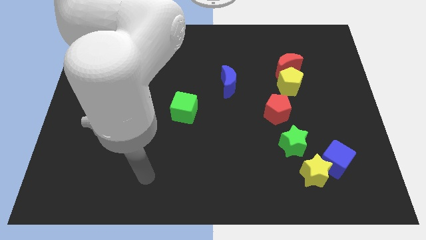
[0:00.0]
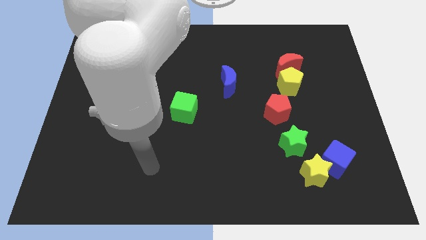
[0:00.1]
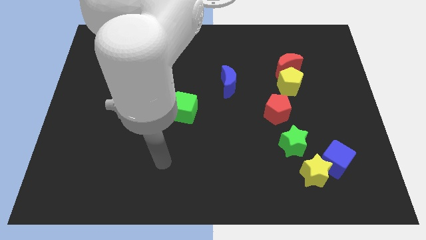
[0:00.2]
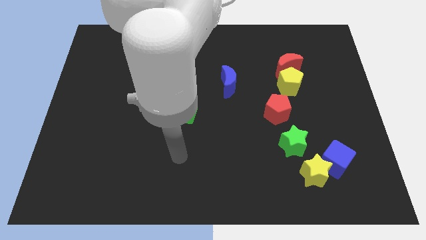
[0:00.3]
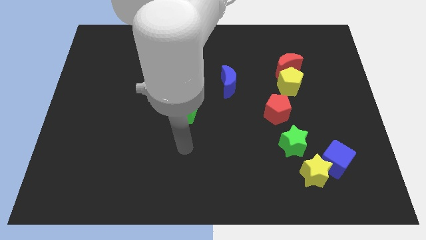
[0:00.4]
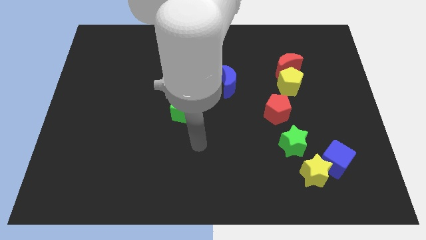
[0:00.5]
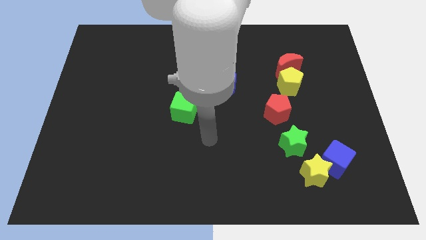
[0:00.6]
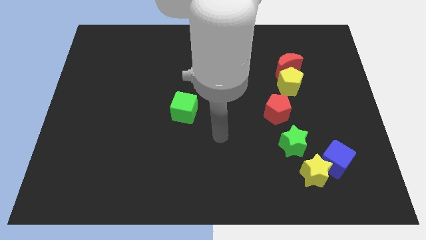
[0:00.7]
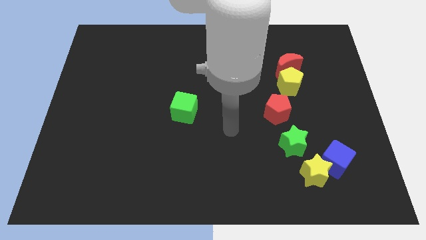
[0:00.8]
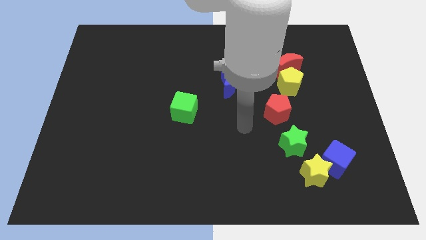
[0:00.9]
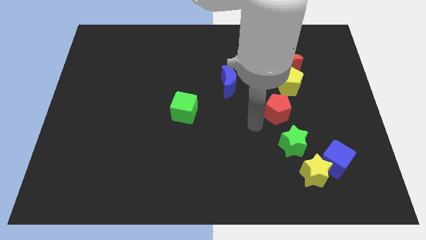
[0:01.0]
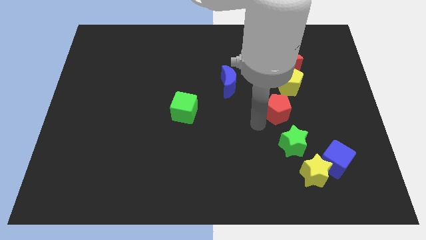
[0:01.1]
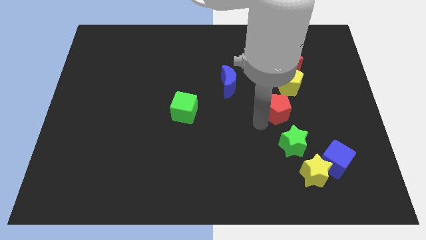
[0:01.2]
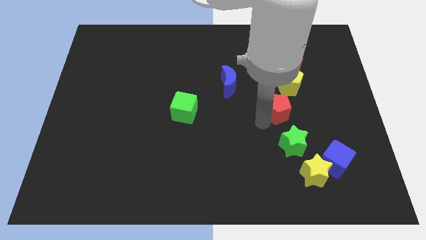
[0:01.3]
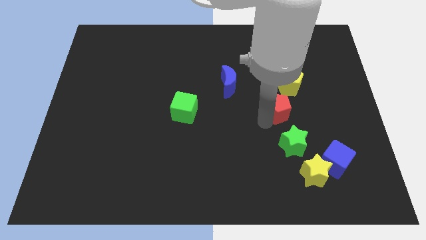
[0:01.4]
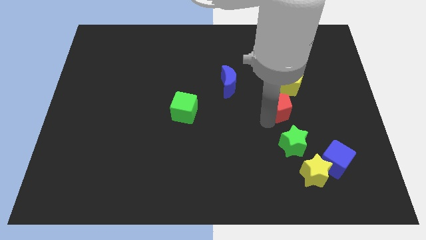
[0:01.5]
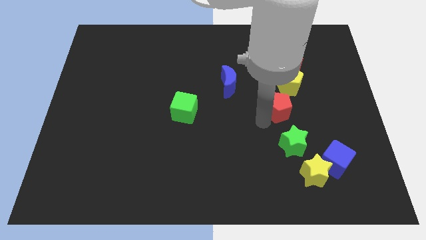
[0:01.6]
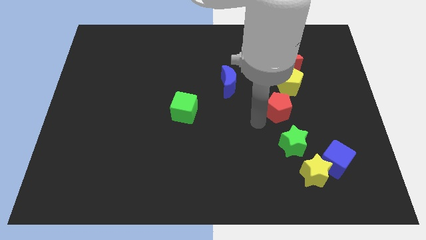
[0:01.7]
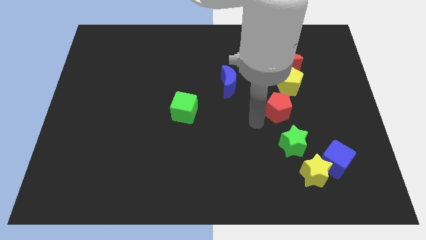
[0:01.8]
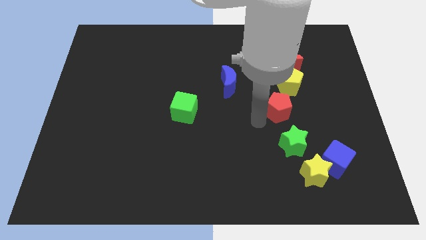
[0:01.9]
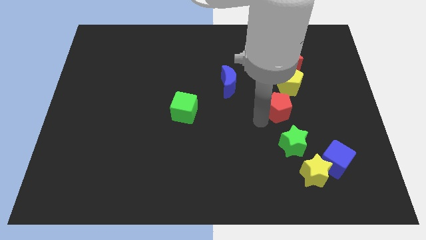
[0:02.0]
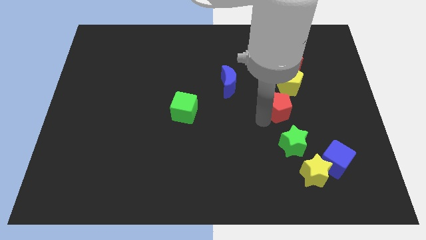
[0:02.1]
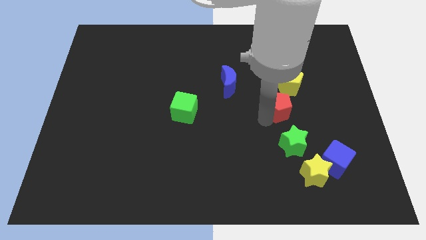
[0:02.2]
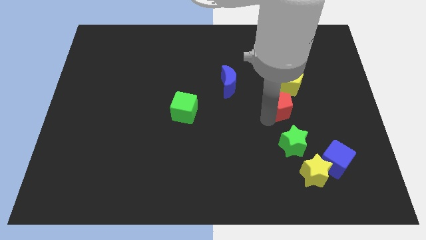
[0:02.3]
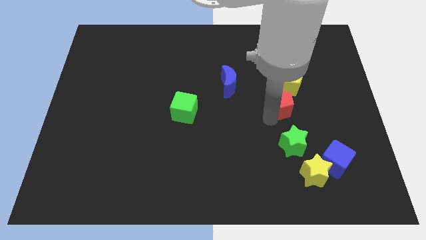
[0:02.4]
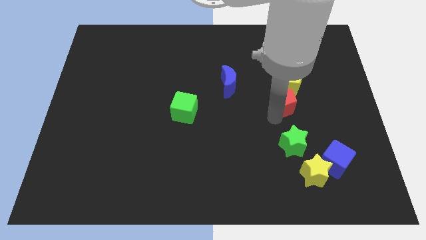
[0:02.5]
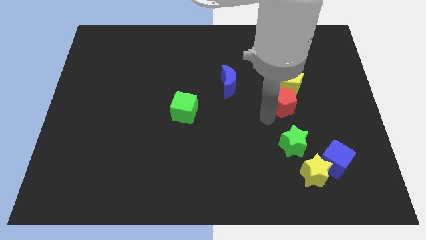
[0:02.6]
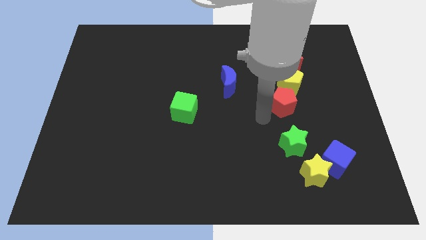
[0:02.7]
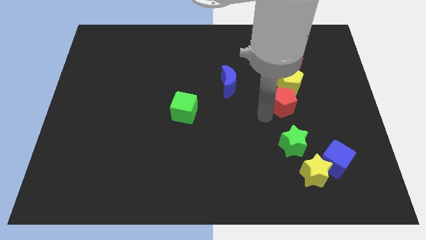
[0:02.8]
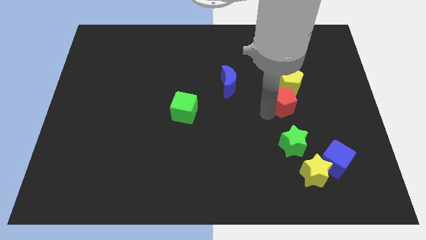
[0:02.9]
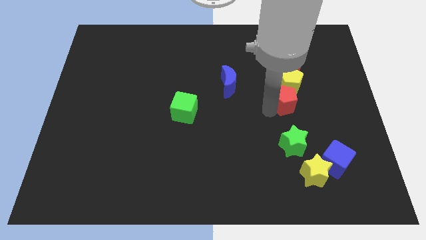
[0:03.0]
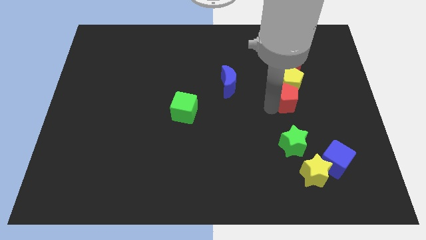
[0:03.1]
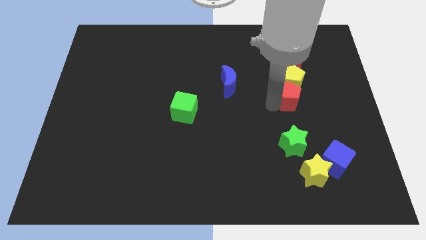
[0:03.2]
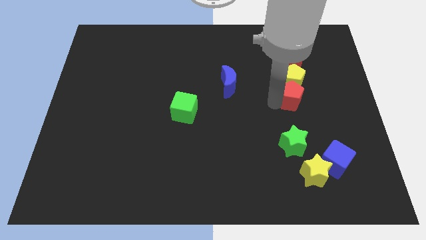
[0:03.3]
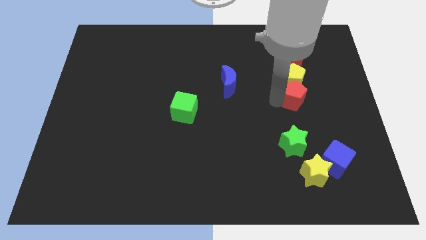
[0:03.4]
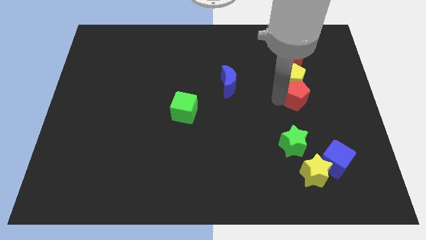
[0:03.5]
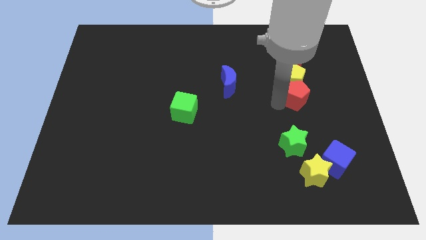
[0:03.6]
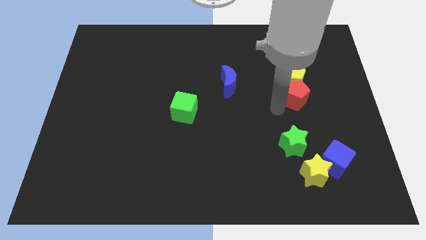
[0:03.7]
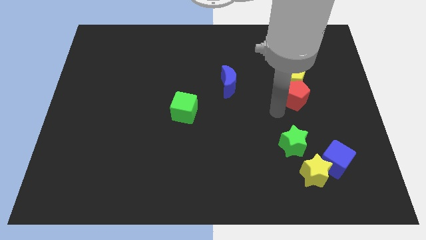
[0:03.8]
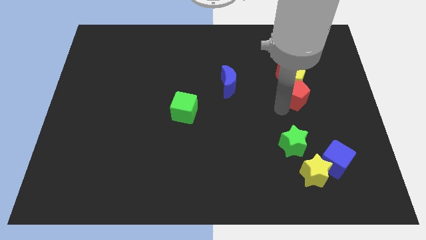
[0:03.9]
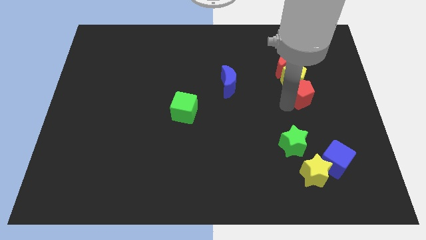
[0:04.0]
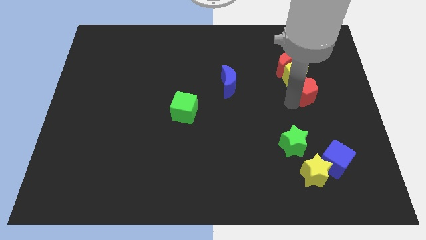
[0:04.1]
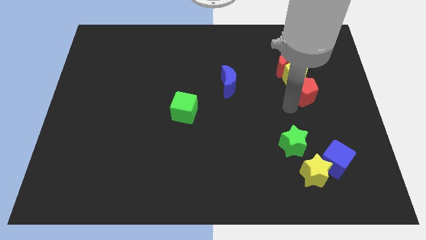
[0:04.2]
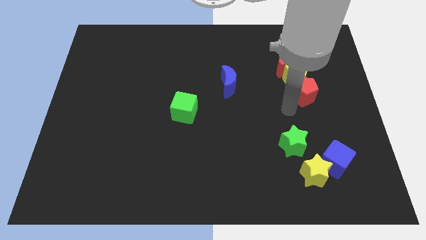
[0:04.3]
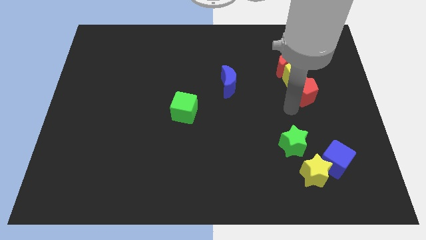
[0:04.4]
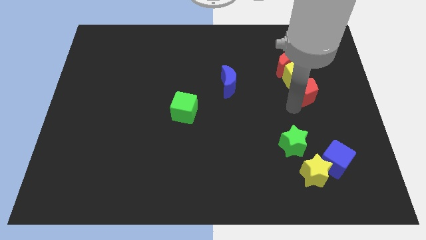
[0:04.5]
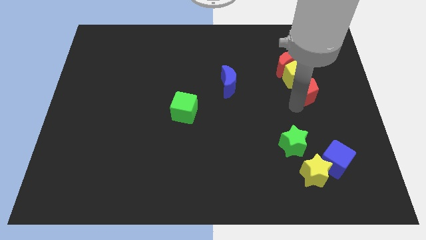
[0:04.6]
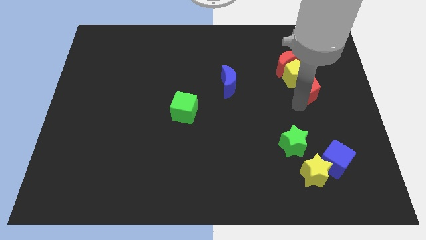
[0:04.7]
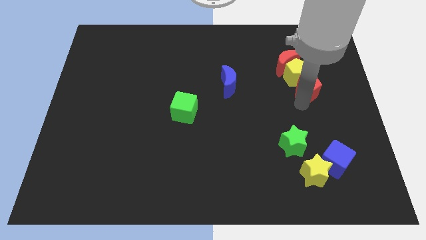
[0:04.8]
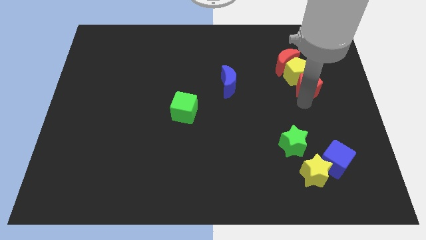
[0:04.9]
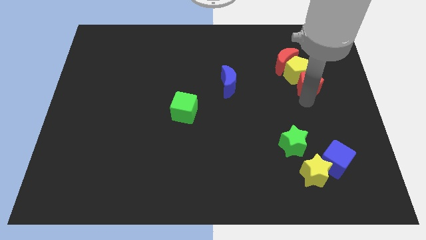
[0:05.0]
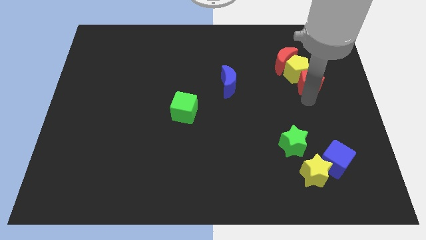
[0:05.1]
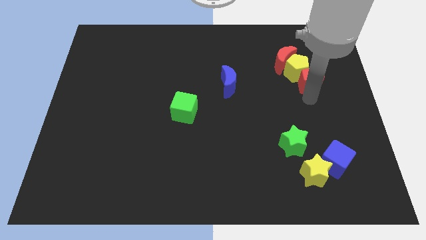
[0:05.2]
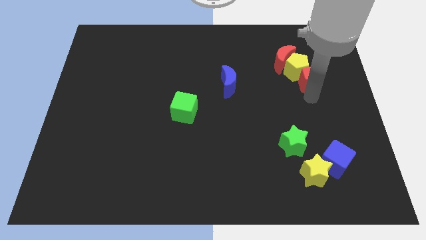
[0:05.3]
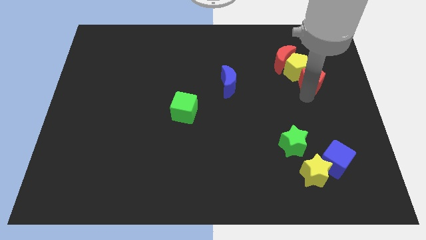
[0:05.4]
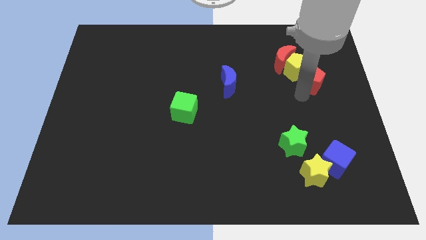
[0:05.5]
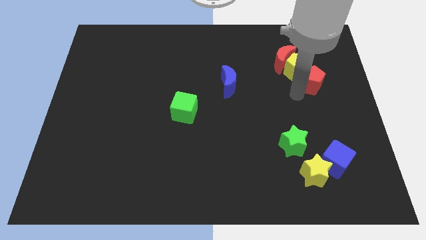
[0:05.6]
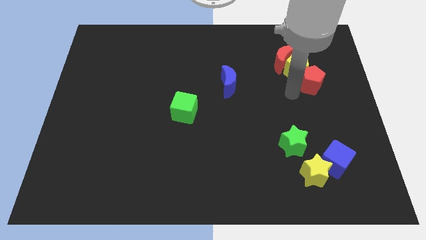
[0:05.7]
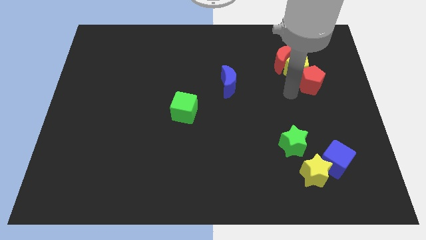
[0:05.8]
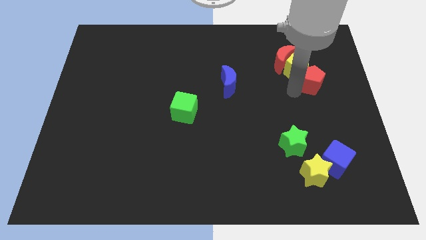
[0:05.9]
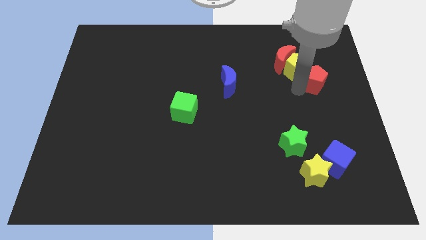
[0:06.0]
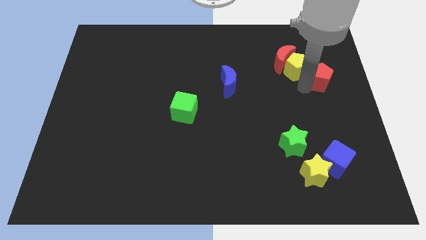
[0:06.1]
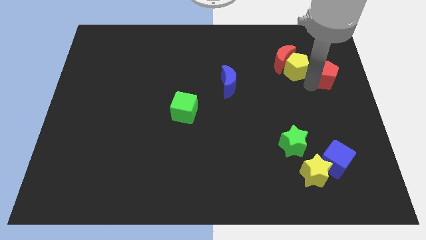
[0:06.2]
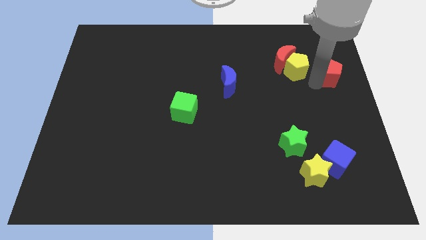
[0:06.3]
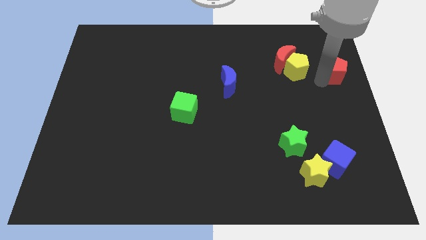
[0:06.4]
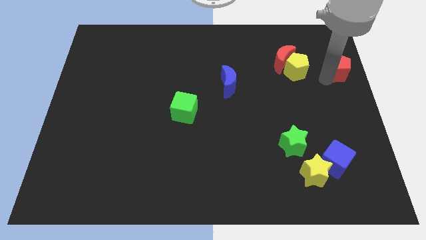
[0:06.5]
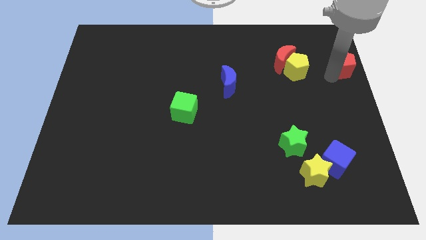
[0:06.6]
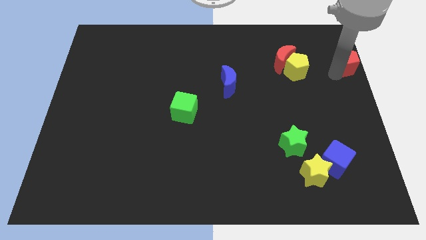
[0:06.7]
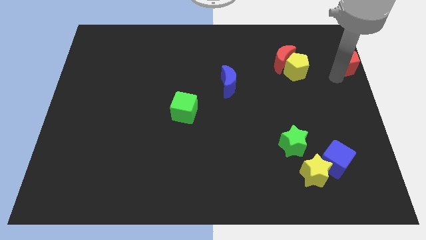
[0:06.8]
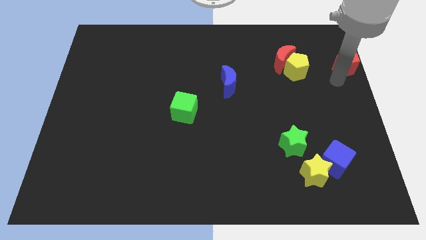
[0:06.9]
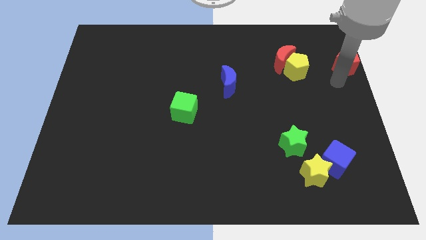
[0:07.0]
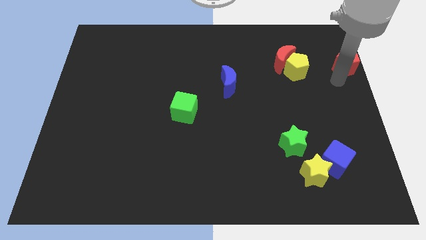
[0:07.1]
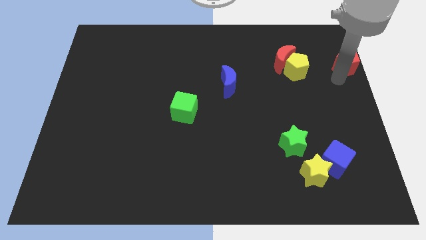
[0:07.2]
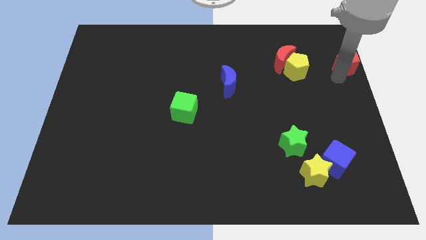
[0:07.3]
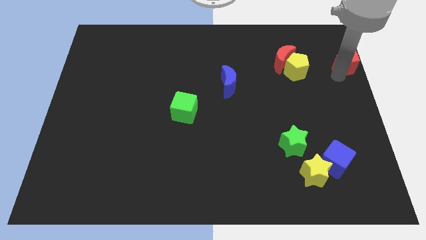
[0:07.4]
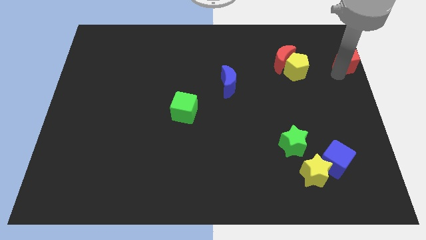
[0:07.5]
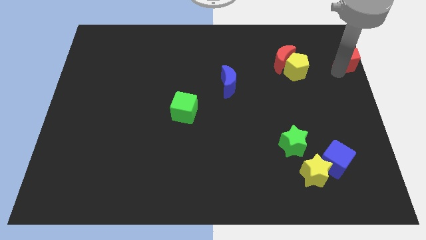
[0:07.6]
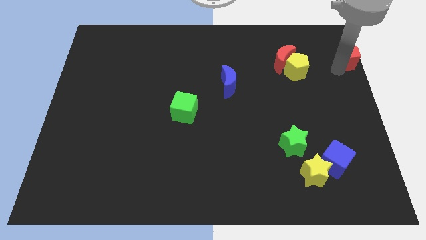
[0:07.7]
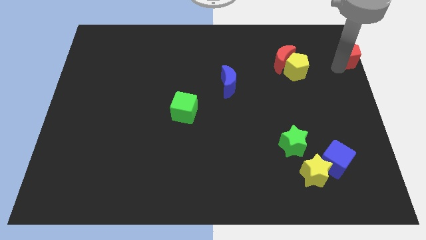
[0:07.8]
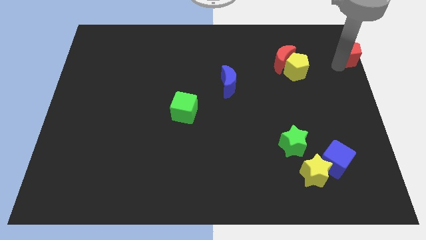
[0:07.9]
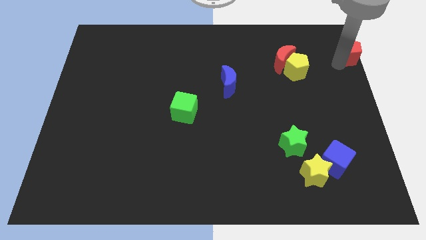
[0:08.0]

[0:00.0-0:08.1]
push the red pentagon to the upper right corner
